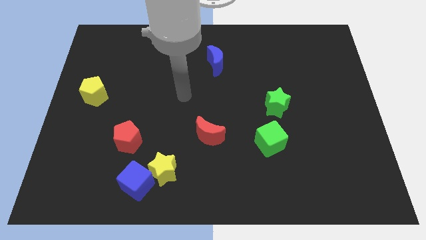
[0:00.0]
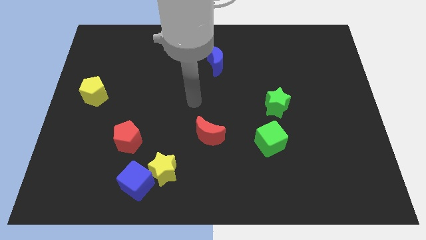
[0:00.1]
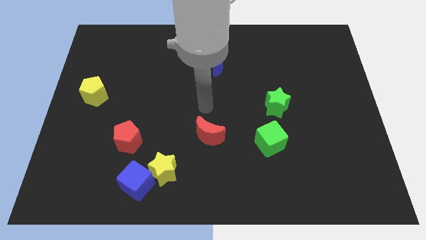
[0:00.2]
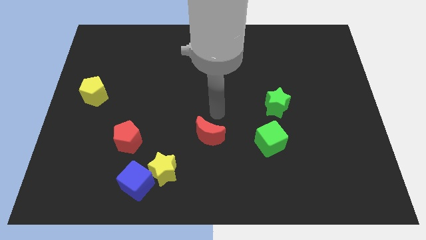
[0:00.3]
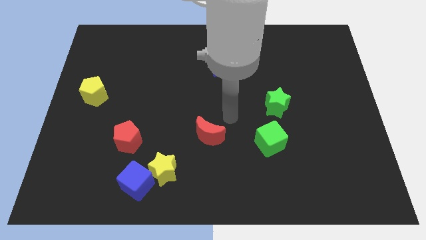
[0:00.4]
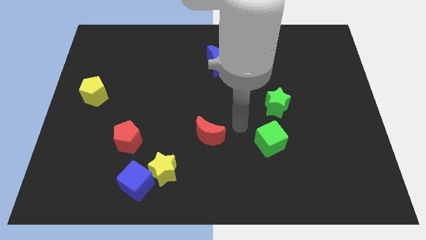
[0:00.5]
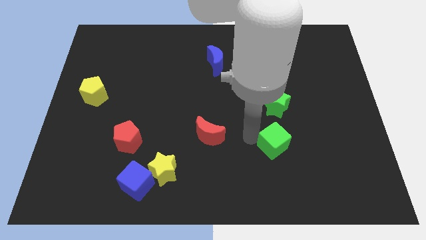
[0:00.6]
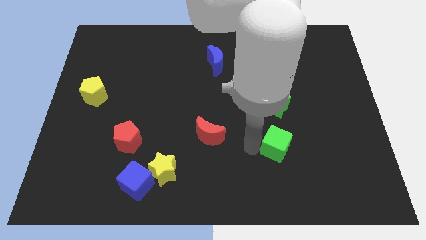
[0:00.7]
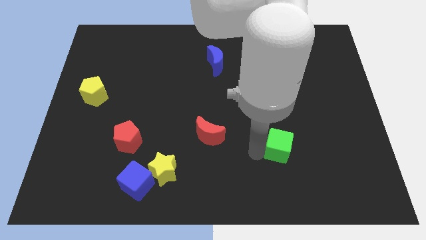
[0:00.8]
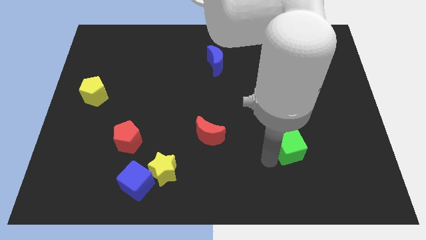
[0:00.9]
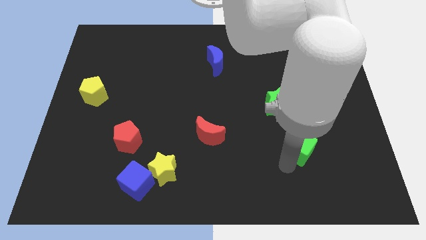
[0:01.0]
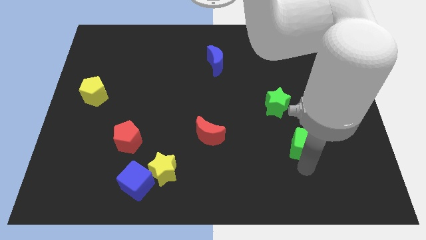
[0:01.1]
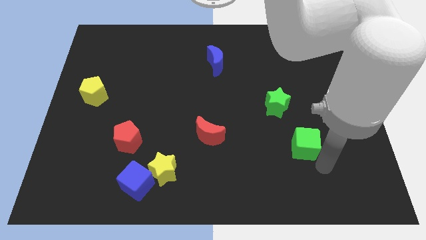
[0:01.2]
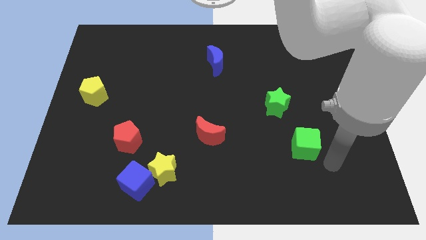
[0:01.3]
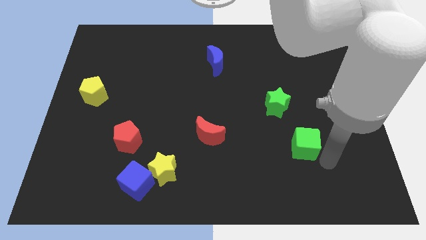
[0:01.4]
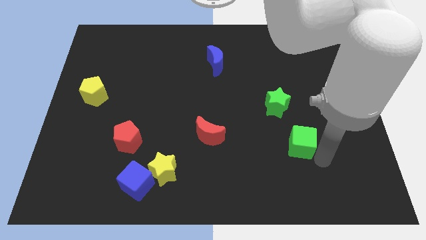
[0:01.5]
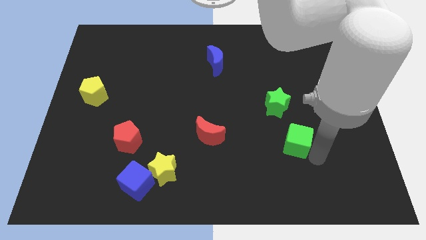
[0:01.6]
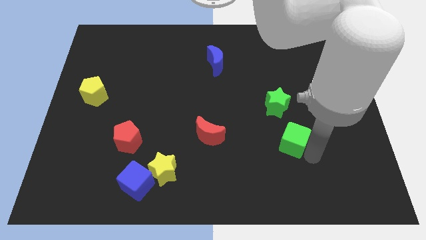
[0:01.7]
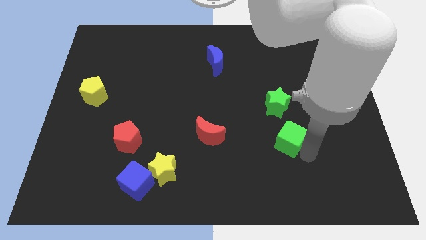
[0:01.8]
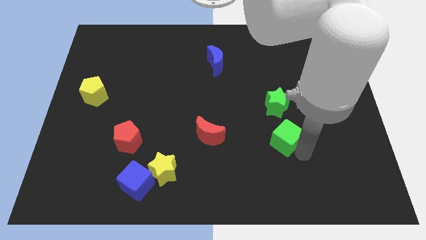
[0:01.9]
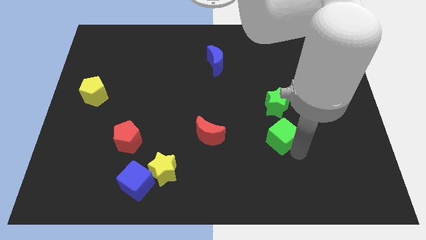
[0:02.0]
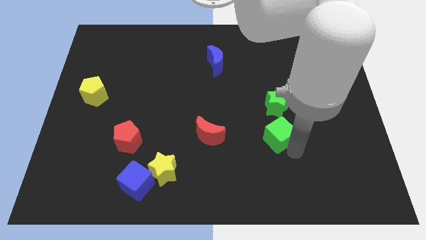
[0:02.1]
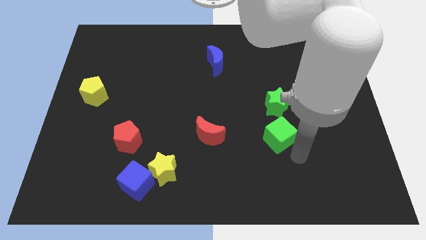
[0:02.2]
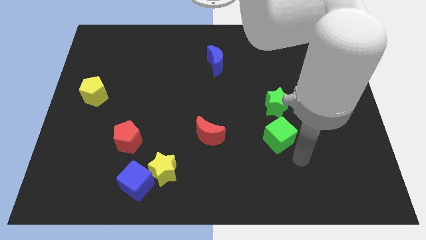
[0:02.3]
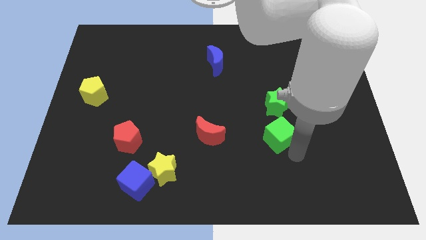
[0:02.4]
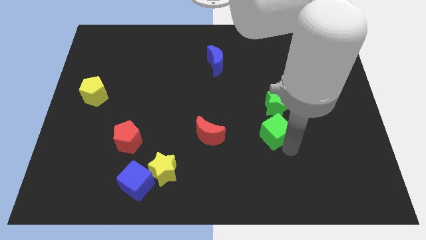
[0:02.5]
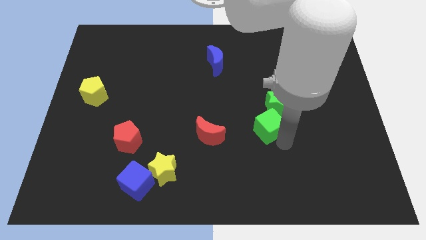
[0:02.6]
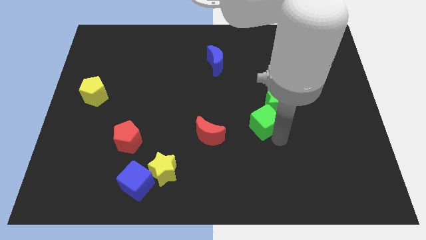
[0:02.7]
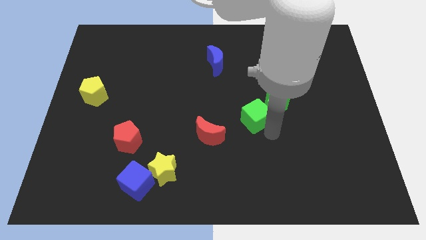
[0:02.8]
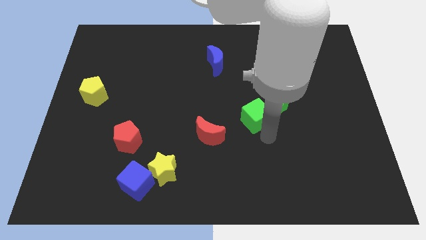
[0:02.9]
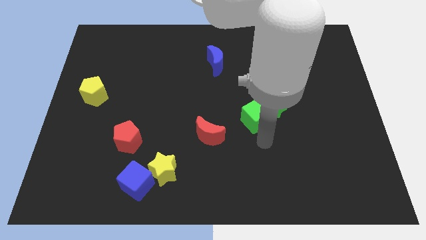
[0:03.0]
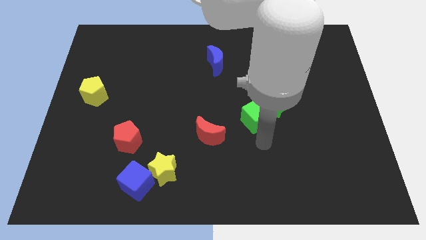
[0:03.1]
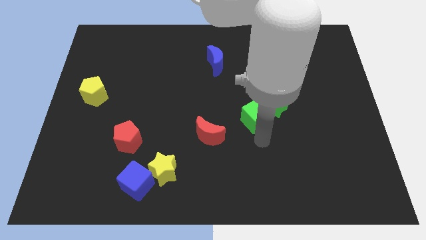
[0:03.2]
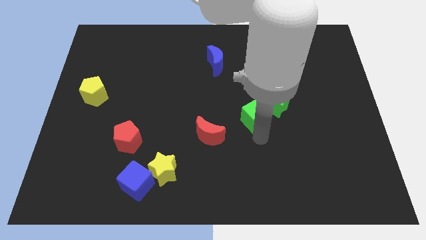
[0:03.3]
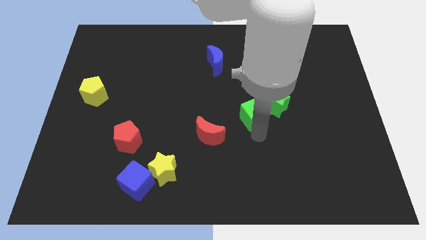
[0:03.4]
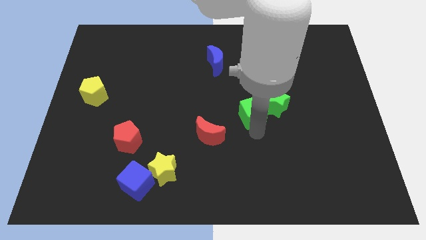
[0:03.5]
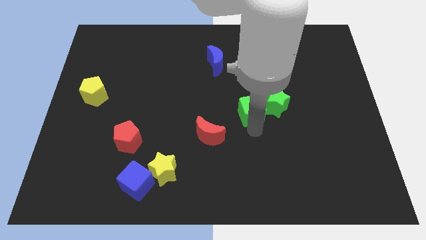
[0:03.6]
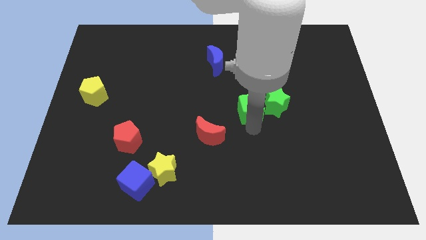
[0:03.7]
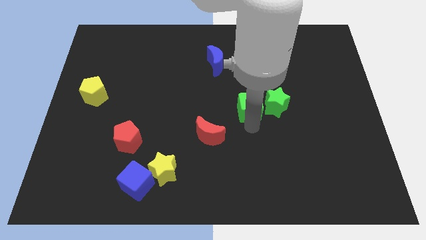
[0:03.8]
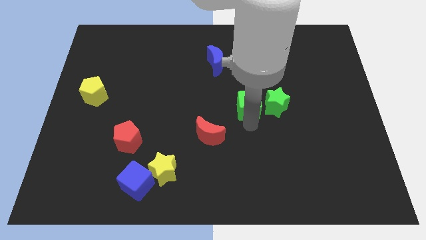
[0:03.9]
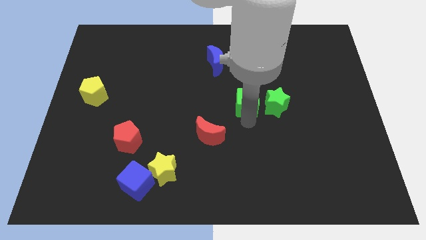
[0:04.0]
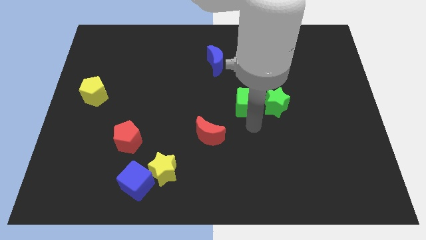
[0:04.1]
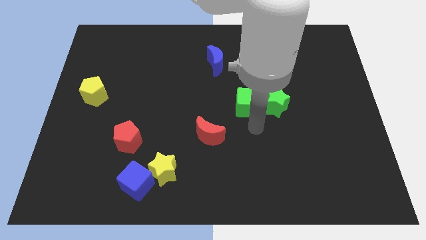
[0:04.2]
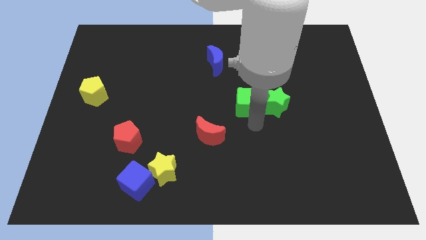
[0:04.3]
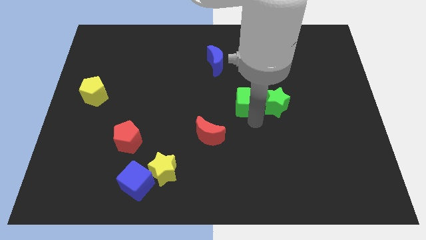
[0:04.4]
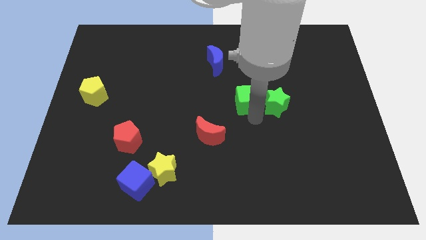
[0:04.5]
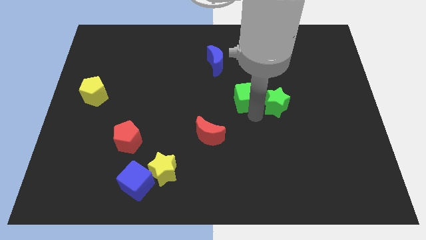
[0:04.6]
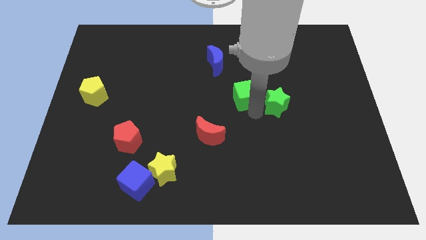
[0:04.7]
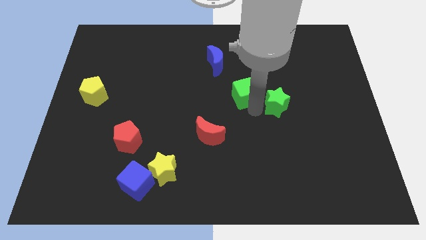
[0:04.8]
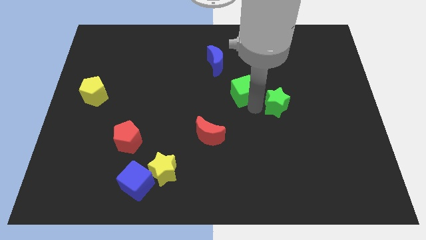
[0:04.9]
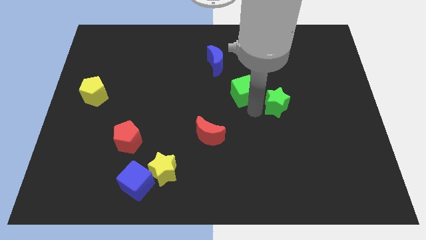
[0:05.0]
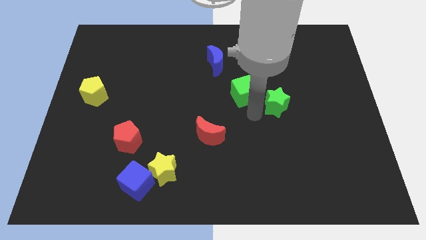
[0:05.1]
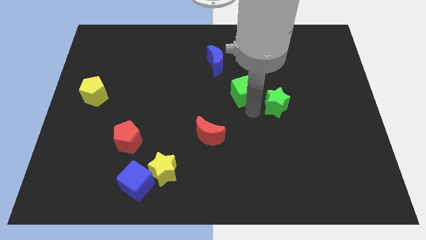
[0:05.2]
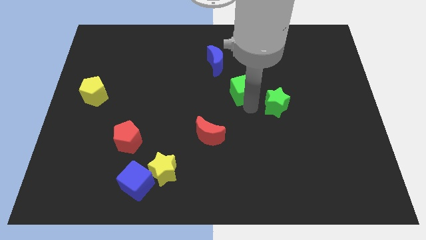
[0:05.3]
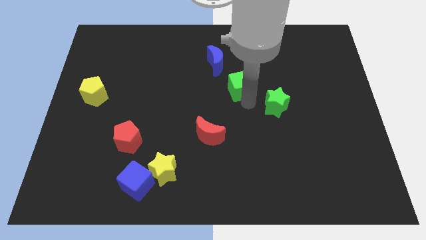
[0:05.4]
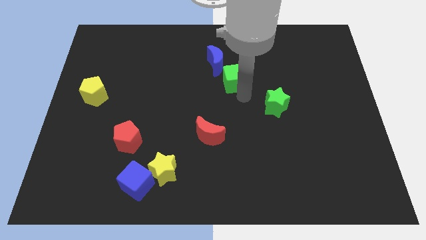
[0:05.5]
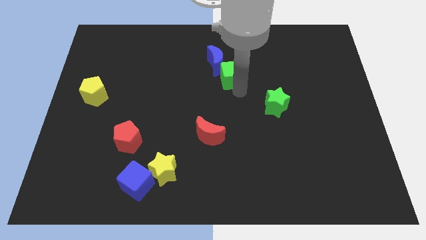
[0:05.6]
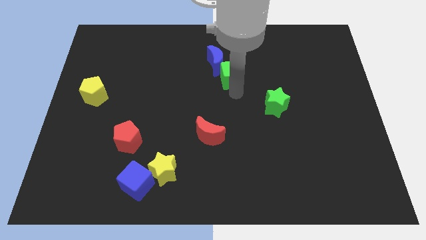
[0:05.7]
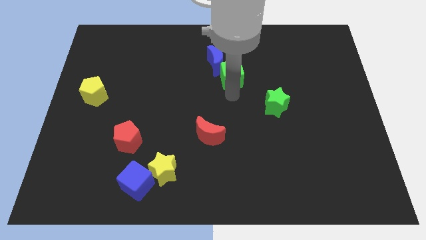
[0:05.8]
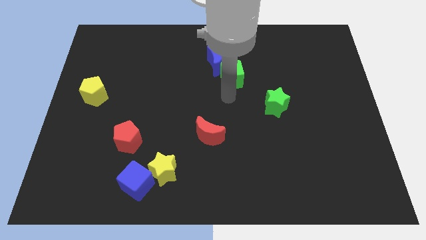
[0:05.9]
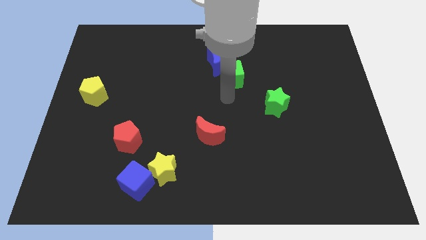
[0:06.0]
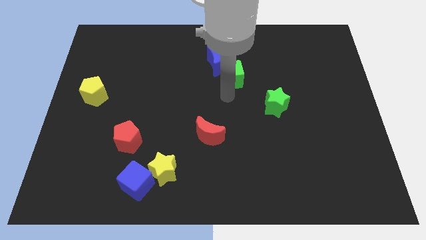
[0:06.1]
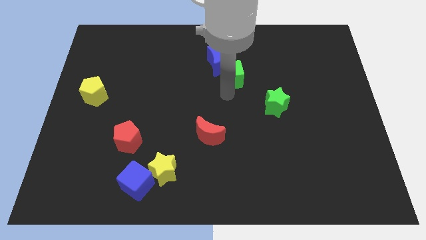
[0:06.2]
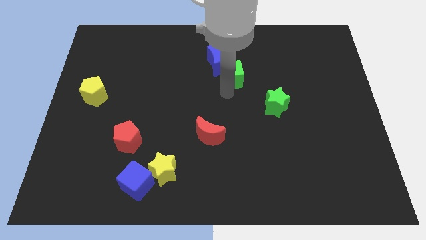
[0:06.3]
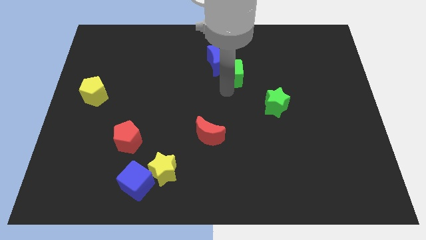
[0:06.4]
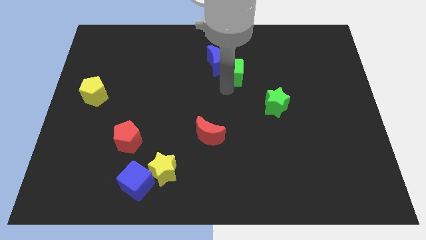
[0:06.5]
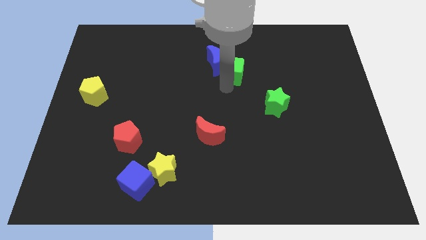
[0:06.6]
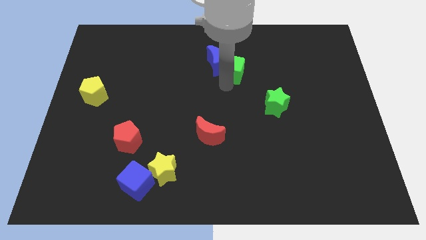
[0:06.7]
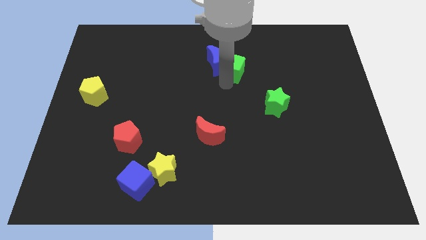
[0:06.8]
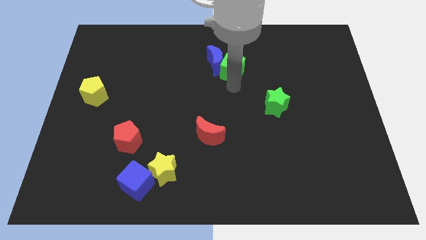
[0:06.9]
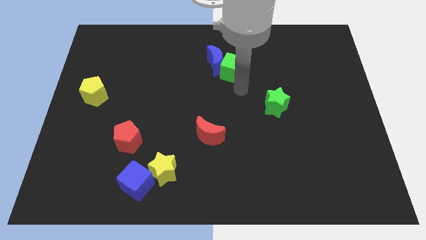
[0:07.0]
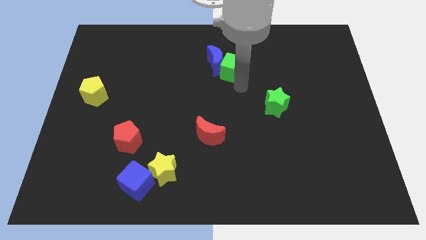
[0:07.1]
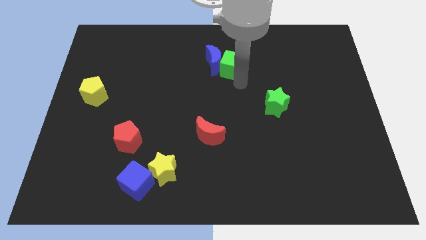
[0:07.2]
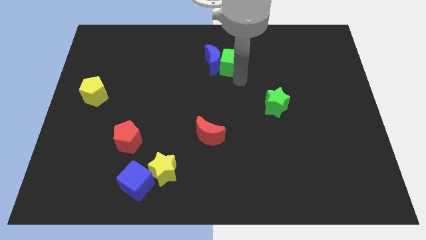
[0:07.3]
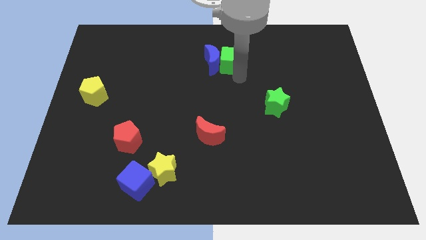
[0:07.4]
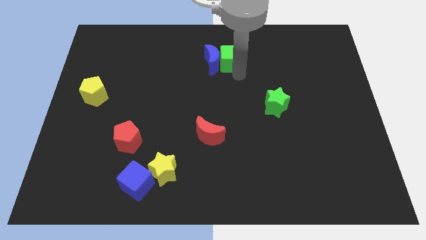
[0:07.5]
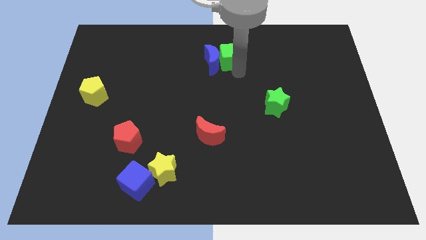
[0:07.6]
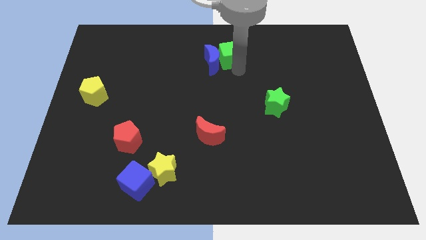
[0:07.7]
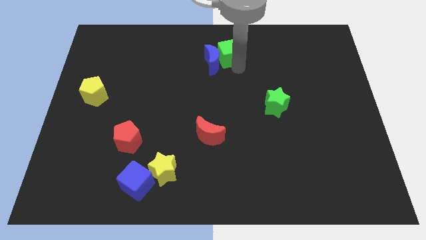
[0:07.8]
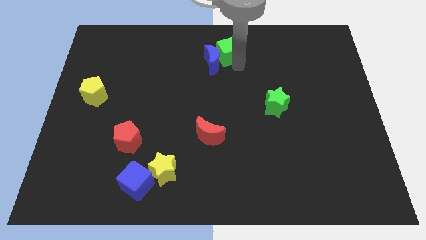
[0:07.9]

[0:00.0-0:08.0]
put the green cube to the top side
